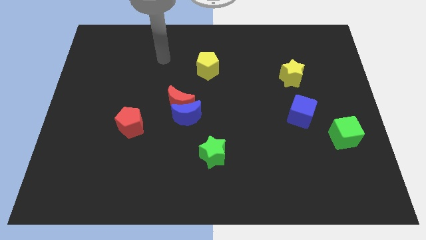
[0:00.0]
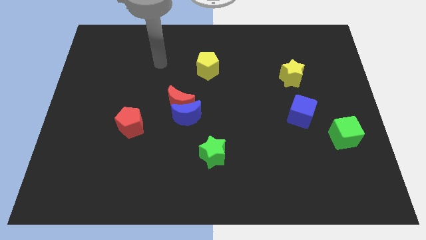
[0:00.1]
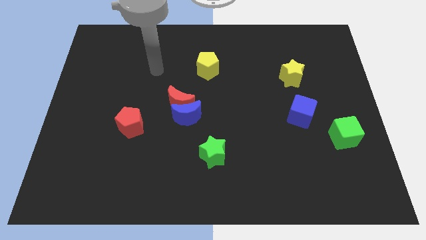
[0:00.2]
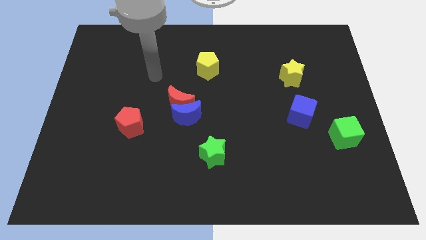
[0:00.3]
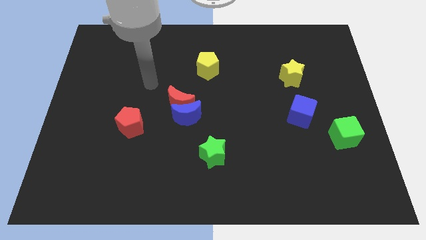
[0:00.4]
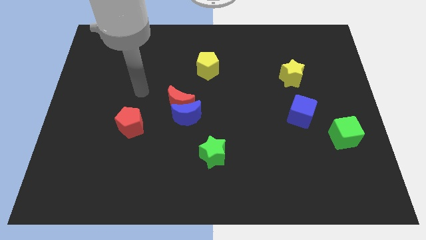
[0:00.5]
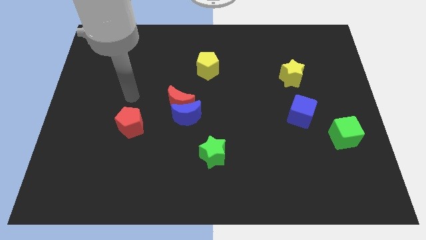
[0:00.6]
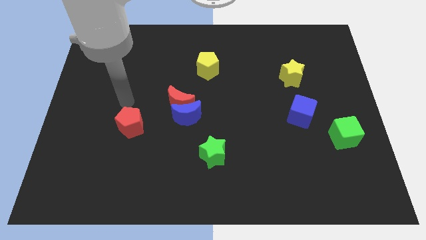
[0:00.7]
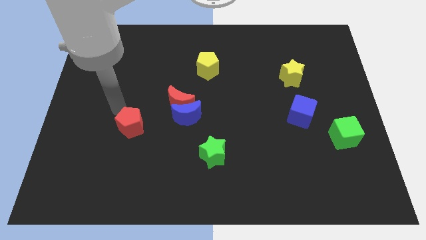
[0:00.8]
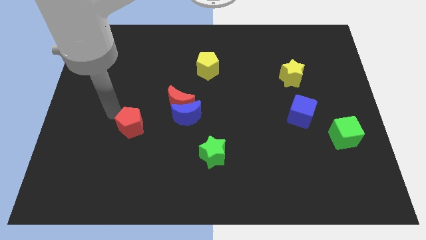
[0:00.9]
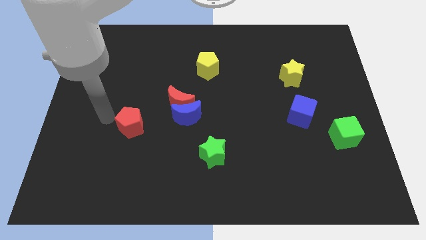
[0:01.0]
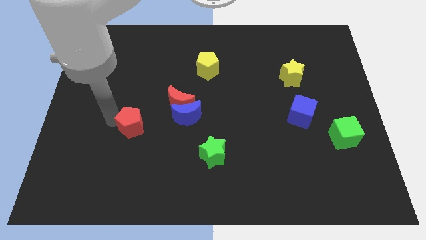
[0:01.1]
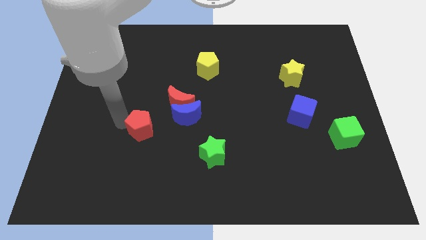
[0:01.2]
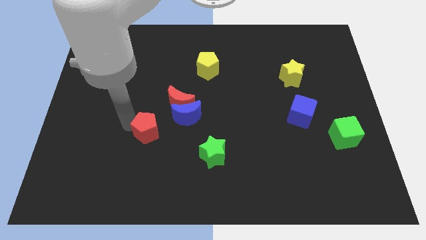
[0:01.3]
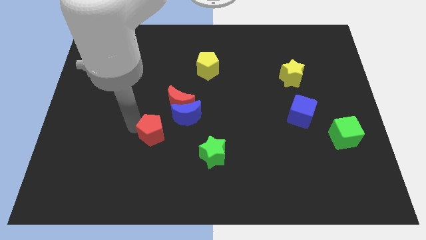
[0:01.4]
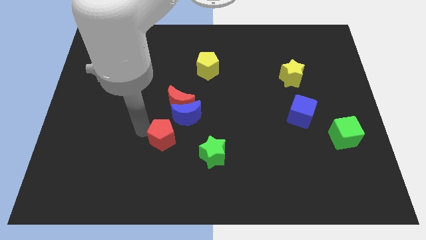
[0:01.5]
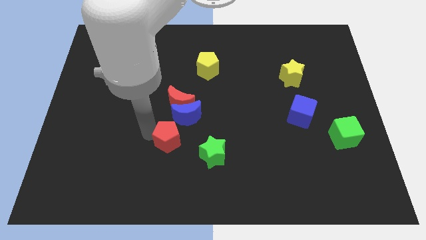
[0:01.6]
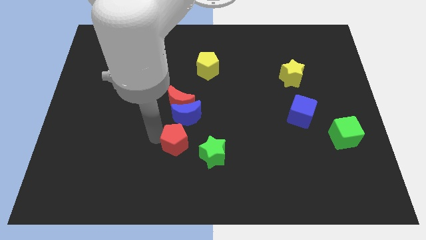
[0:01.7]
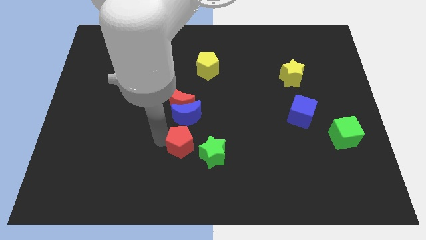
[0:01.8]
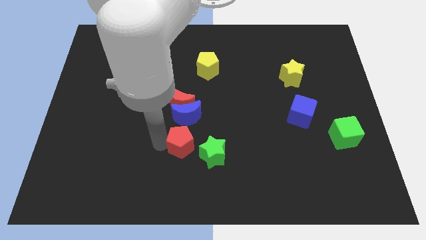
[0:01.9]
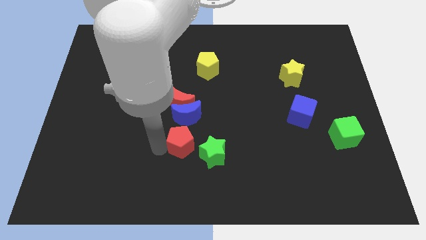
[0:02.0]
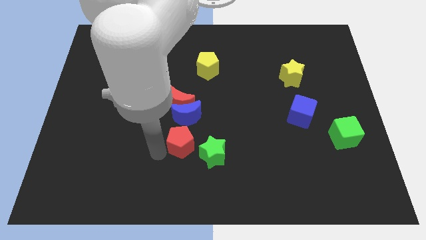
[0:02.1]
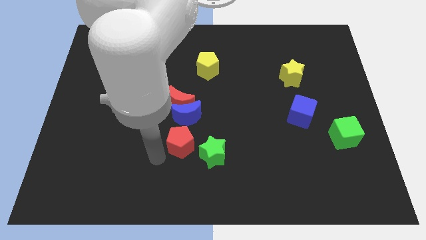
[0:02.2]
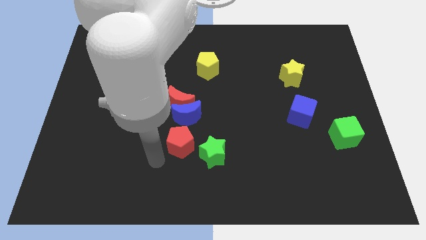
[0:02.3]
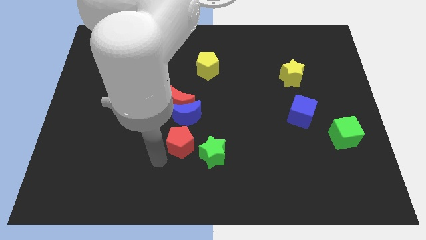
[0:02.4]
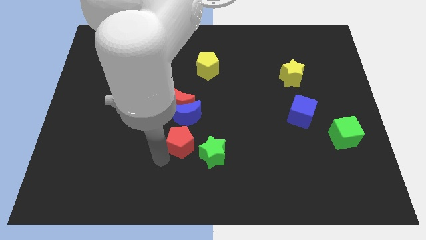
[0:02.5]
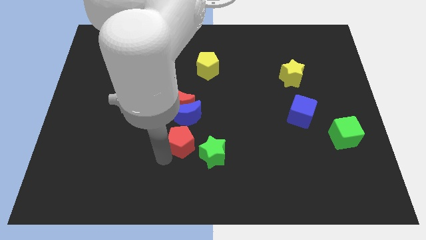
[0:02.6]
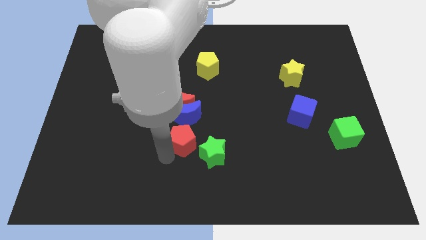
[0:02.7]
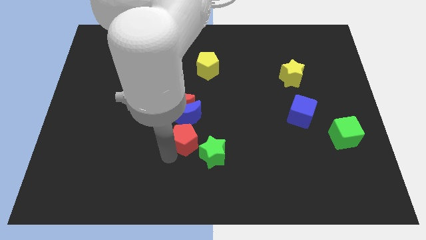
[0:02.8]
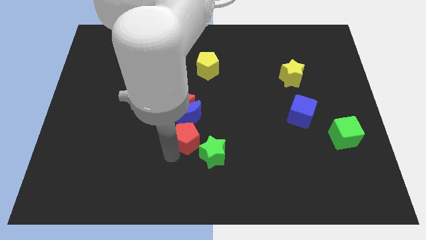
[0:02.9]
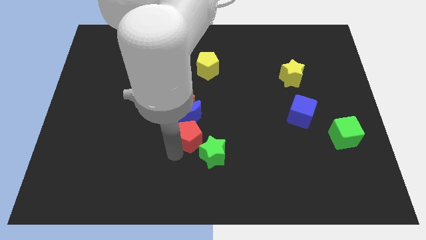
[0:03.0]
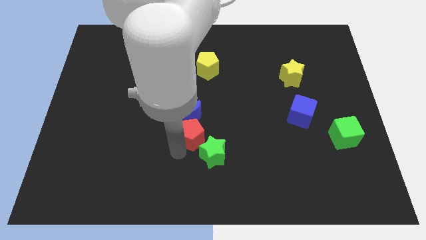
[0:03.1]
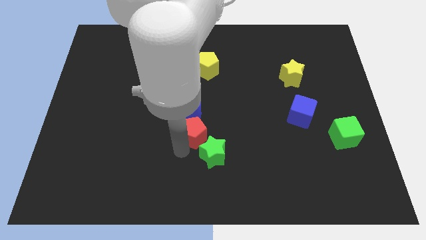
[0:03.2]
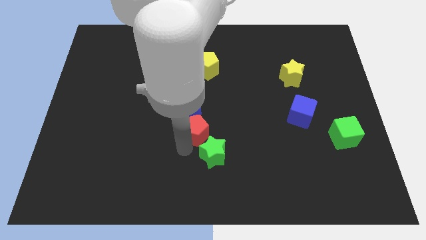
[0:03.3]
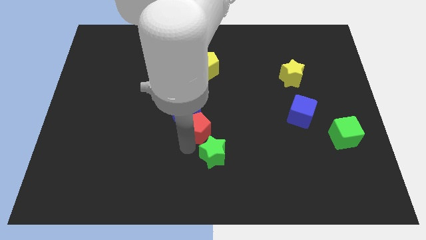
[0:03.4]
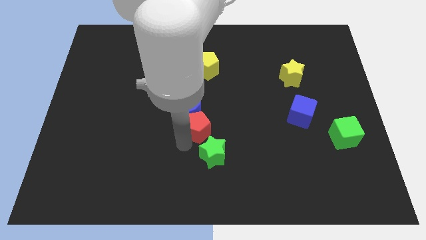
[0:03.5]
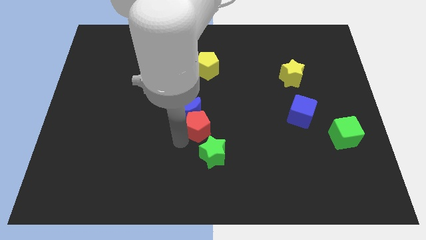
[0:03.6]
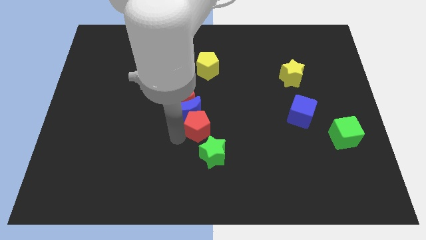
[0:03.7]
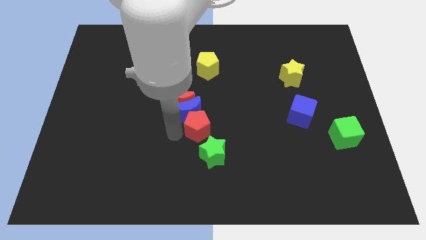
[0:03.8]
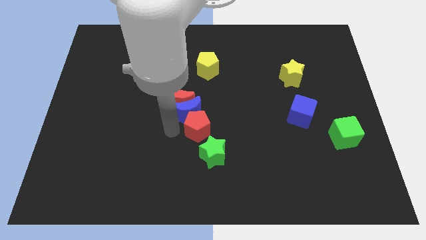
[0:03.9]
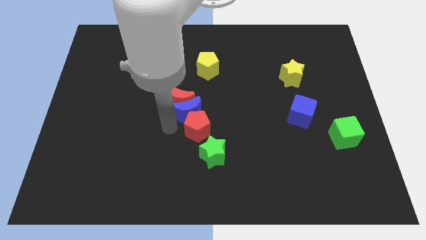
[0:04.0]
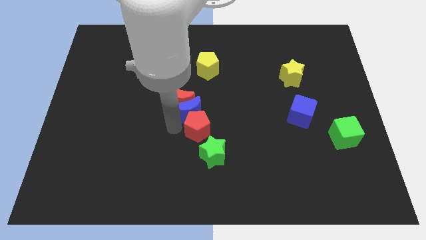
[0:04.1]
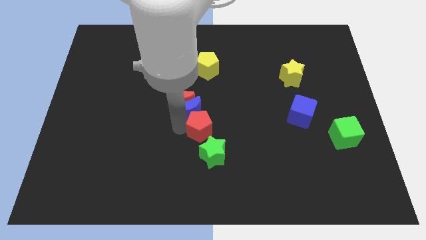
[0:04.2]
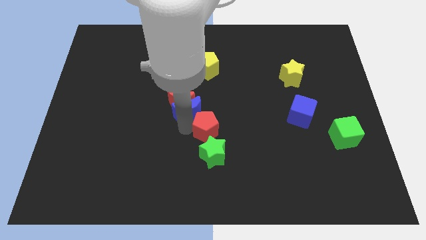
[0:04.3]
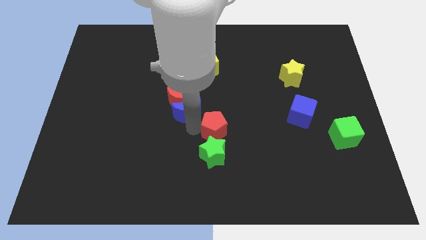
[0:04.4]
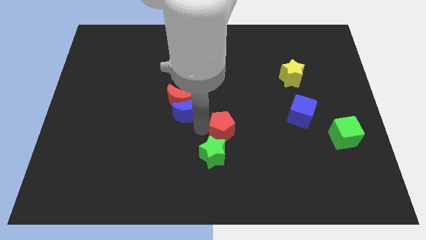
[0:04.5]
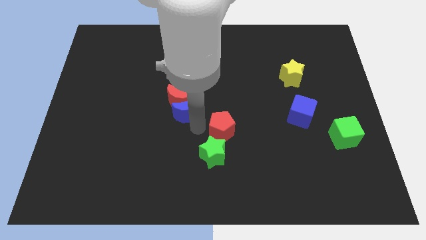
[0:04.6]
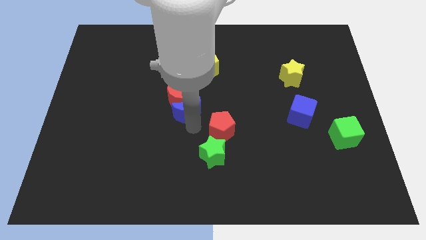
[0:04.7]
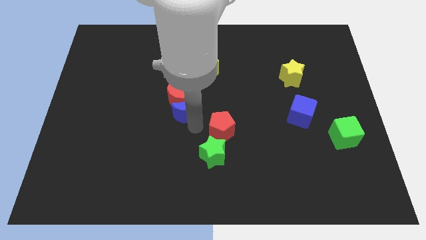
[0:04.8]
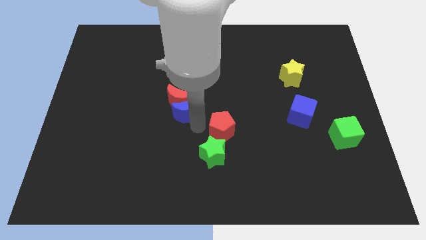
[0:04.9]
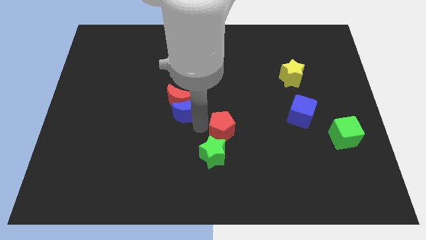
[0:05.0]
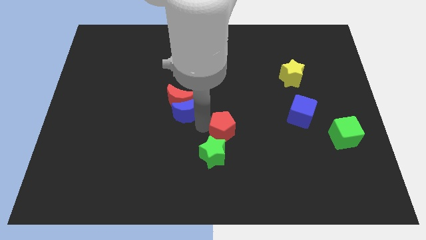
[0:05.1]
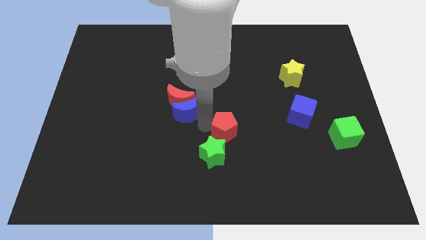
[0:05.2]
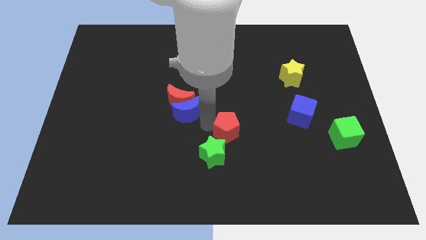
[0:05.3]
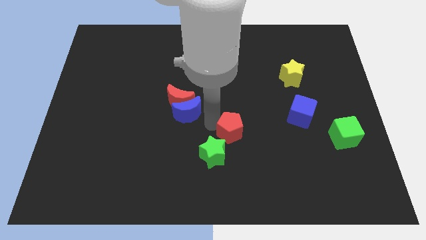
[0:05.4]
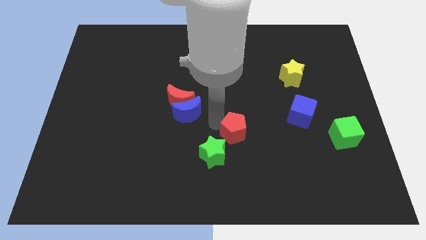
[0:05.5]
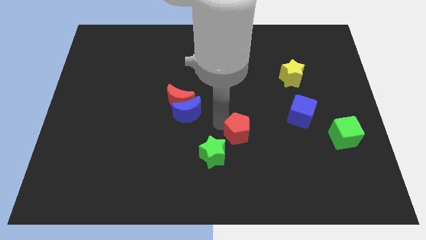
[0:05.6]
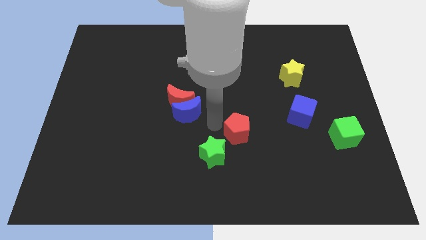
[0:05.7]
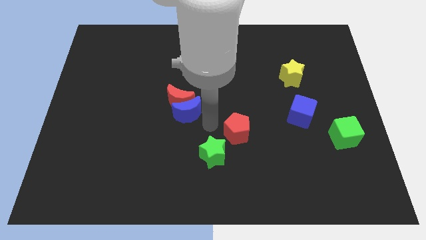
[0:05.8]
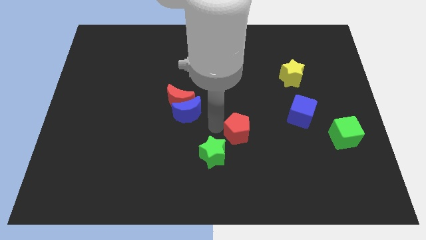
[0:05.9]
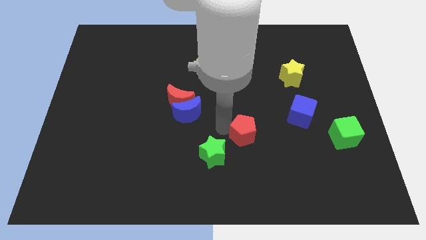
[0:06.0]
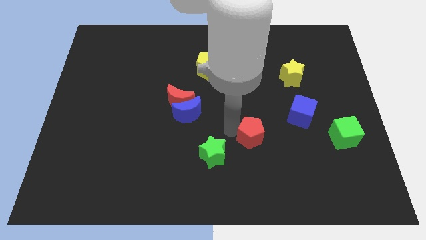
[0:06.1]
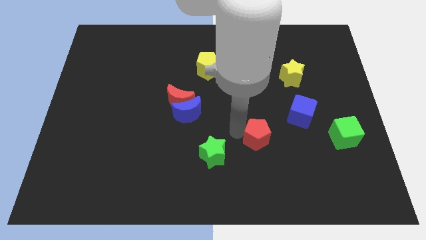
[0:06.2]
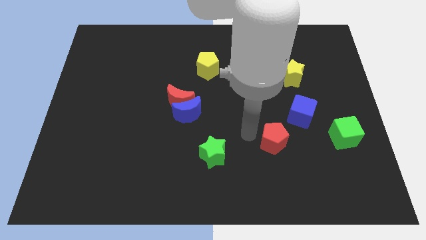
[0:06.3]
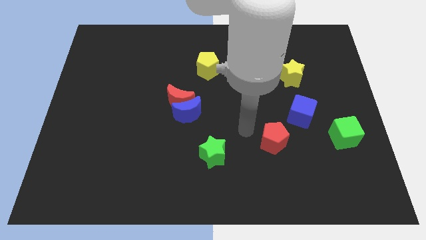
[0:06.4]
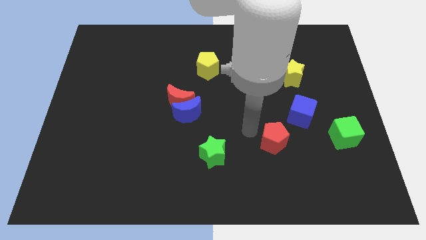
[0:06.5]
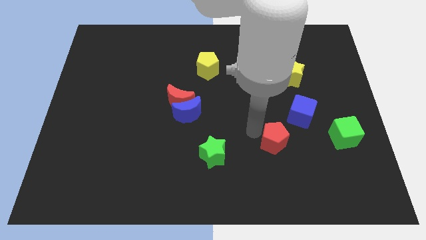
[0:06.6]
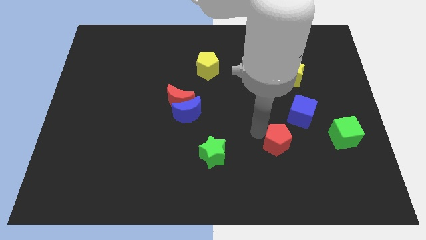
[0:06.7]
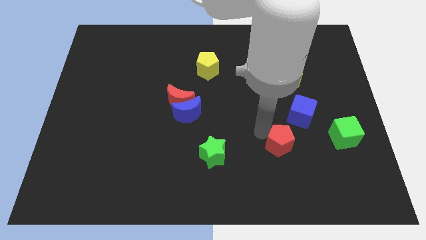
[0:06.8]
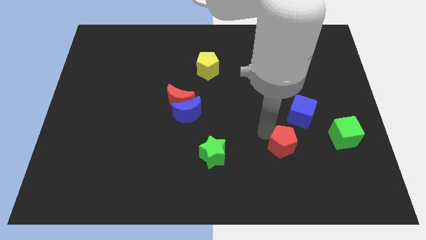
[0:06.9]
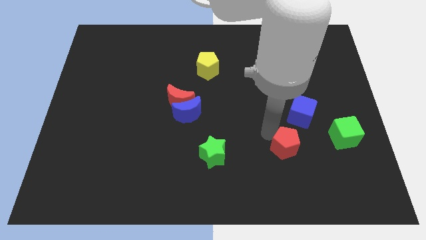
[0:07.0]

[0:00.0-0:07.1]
slide the red pentagon to the bottom of the blue cube
